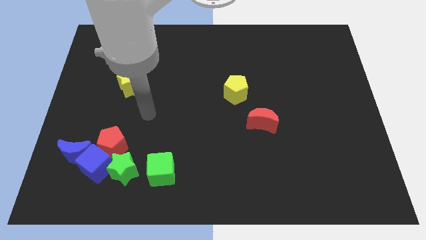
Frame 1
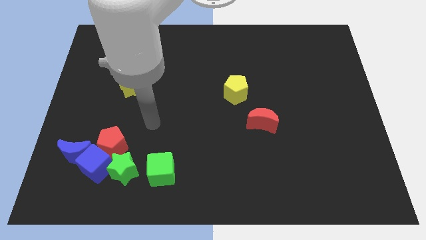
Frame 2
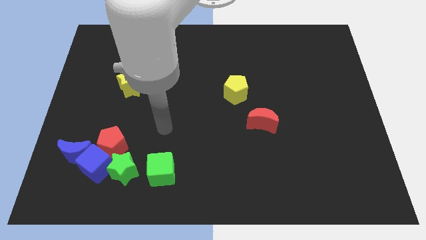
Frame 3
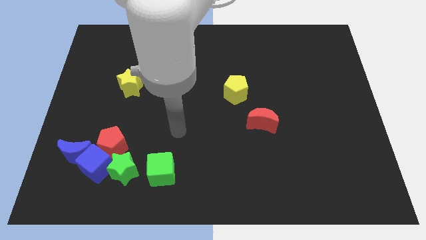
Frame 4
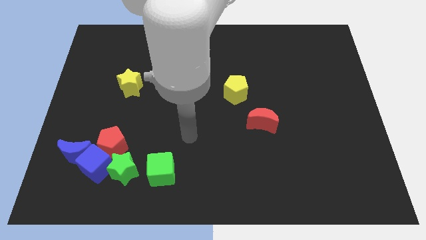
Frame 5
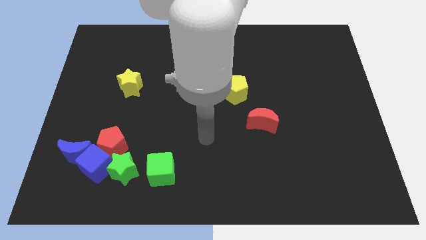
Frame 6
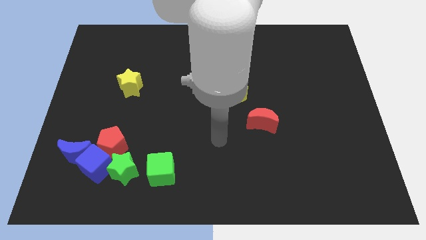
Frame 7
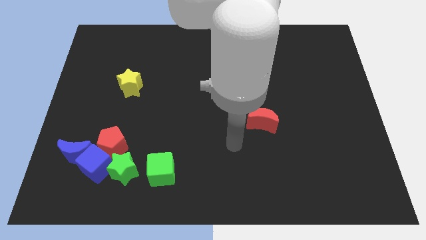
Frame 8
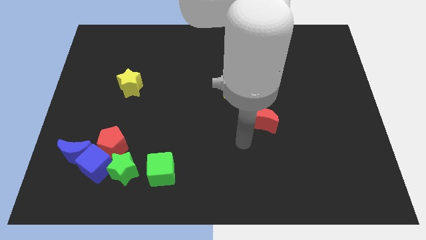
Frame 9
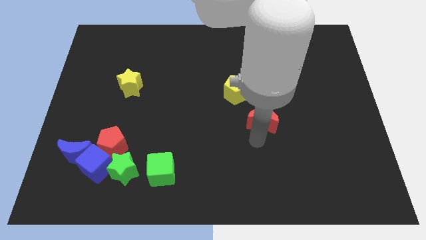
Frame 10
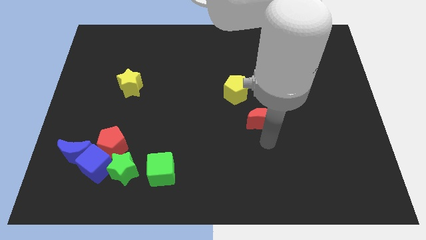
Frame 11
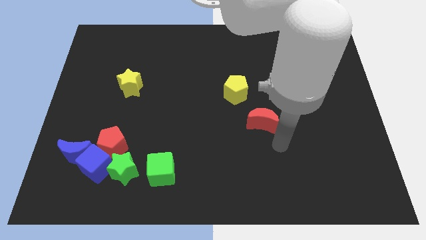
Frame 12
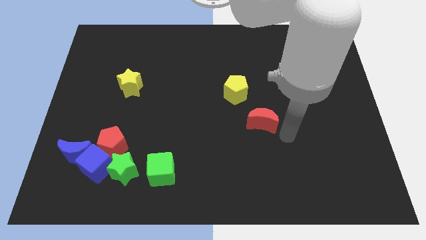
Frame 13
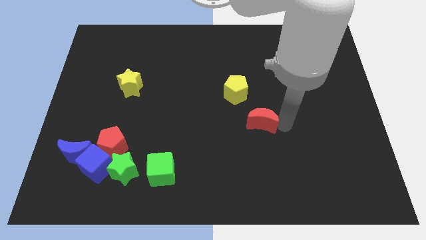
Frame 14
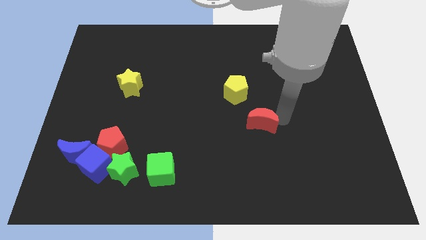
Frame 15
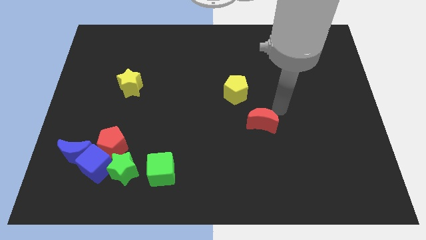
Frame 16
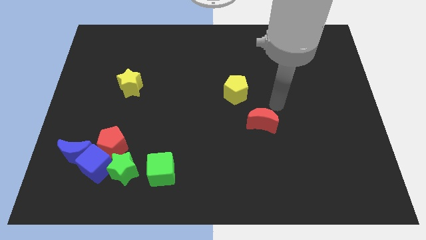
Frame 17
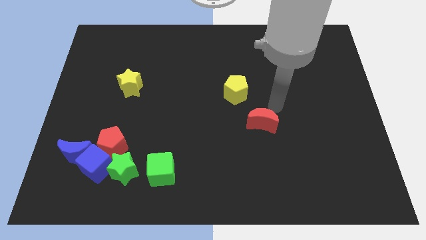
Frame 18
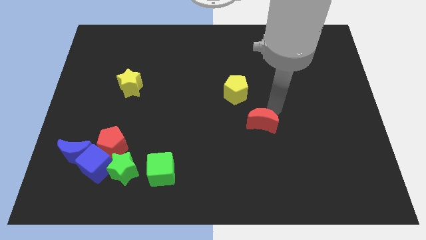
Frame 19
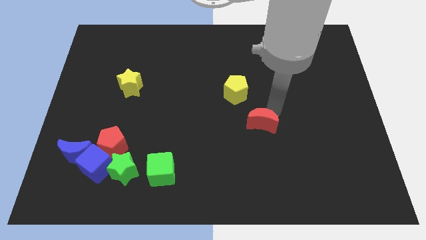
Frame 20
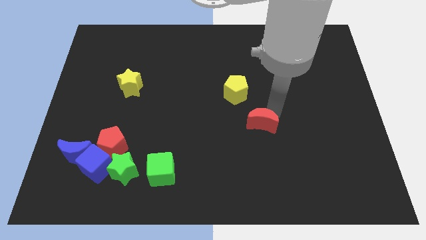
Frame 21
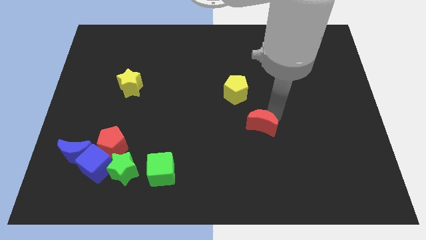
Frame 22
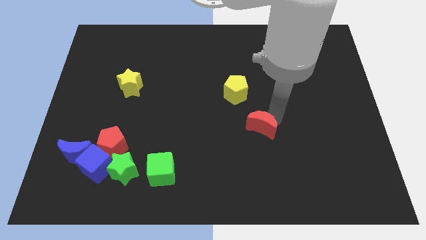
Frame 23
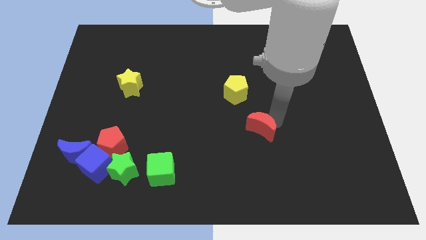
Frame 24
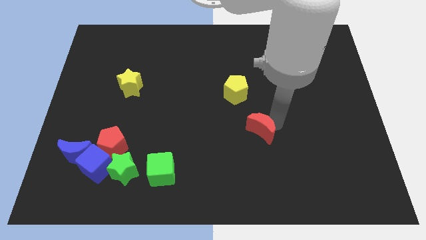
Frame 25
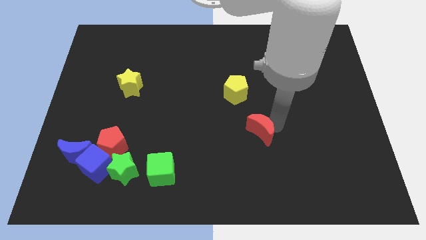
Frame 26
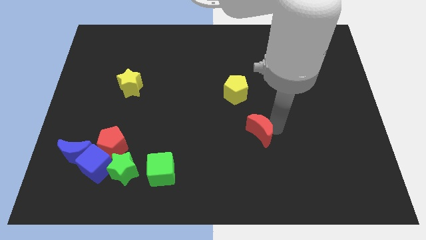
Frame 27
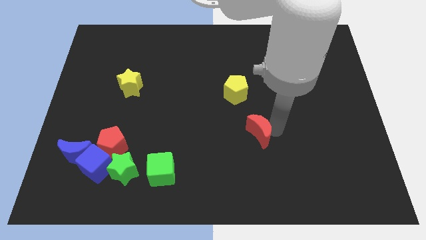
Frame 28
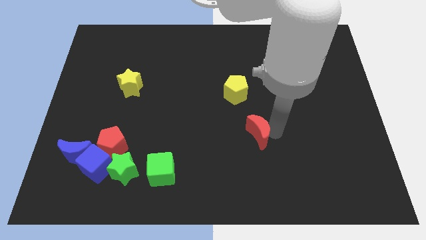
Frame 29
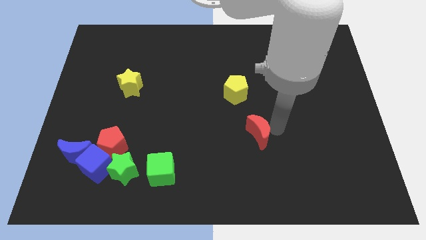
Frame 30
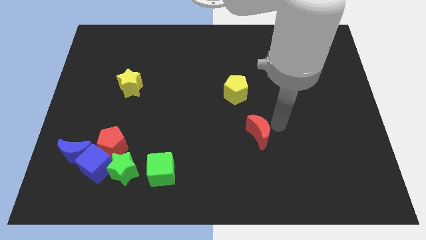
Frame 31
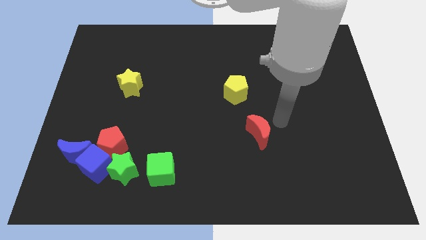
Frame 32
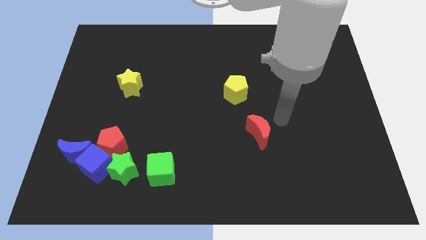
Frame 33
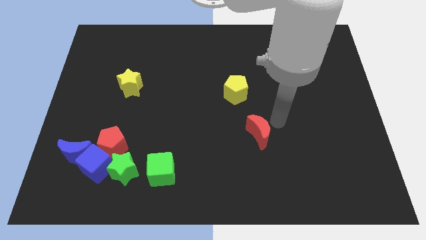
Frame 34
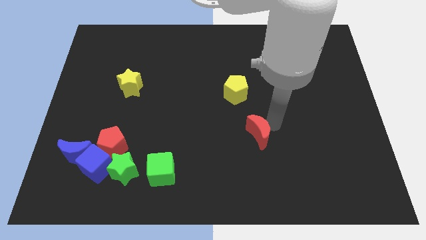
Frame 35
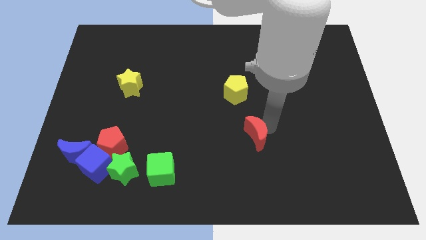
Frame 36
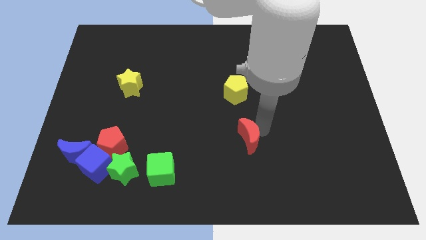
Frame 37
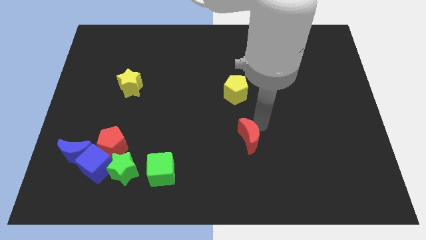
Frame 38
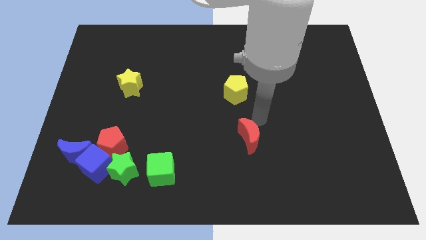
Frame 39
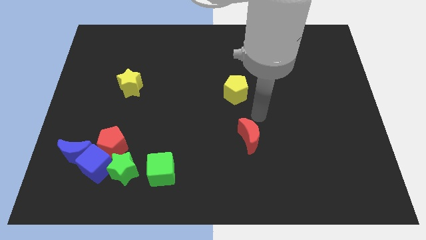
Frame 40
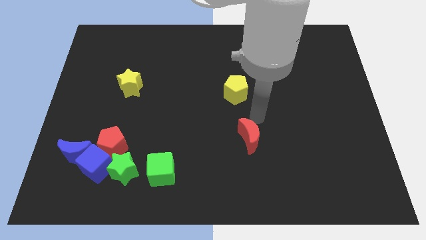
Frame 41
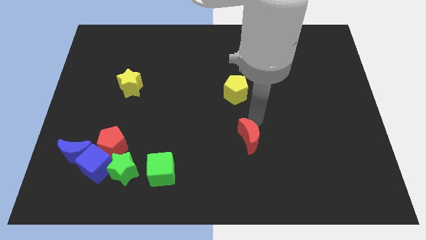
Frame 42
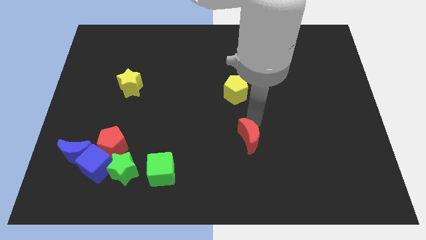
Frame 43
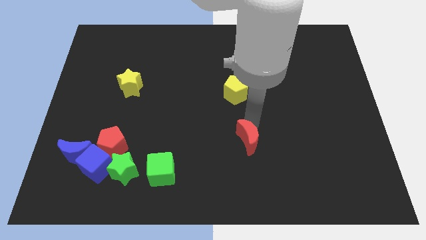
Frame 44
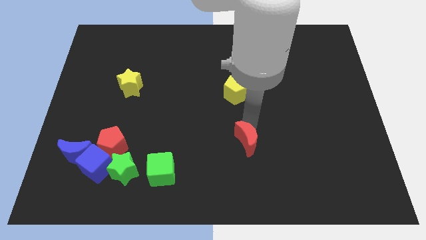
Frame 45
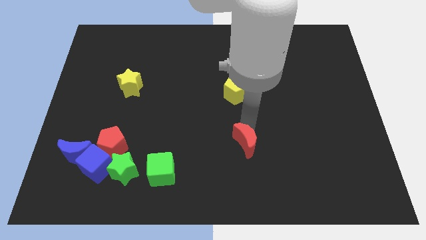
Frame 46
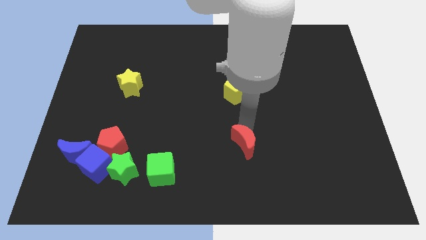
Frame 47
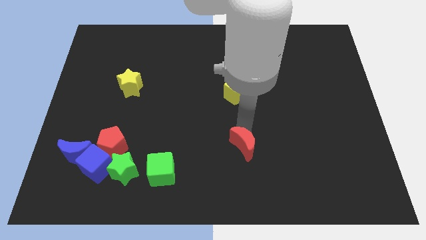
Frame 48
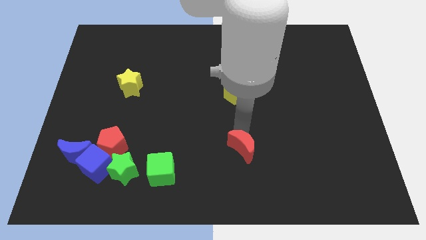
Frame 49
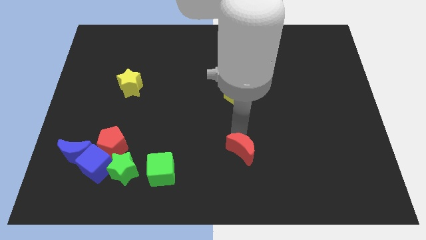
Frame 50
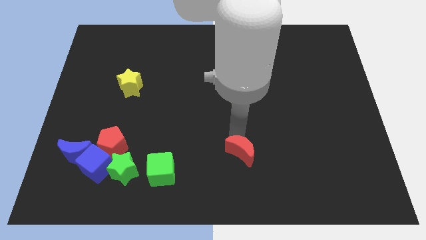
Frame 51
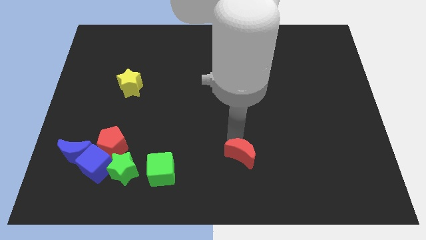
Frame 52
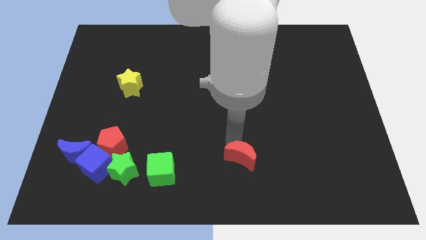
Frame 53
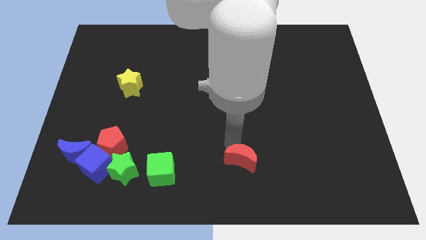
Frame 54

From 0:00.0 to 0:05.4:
slide the red moon to the bottom

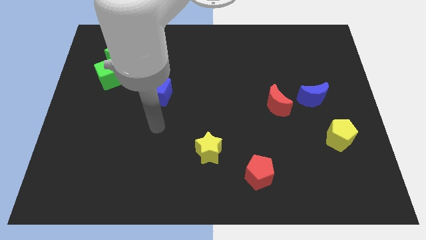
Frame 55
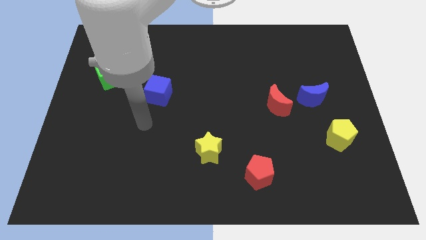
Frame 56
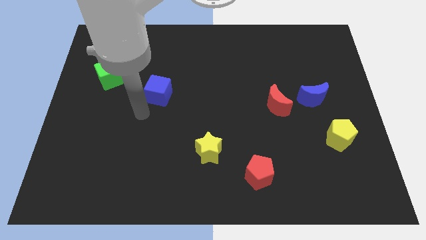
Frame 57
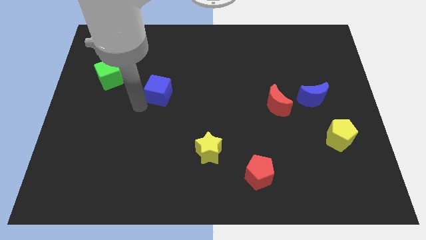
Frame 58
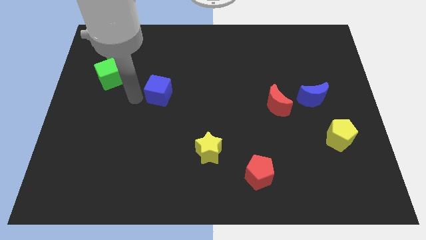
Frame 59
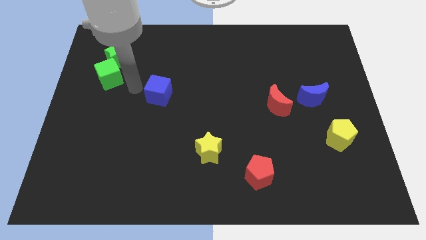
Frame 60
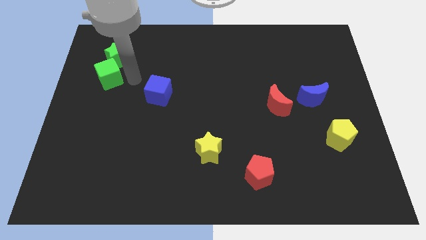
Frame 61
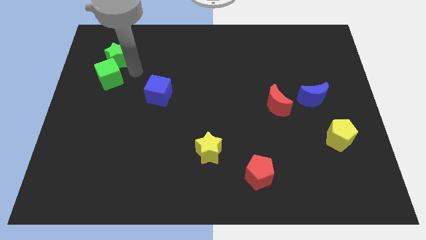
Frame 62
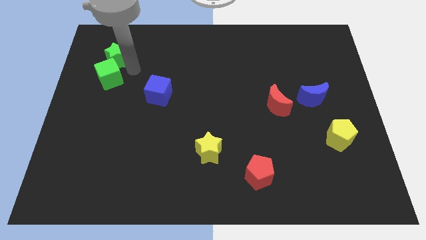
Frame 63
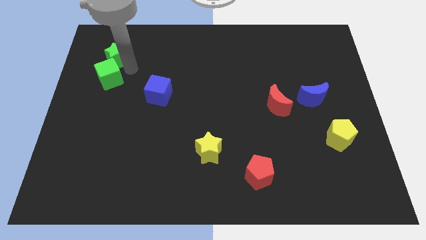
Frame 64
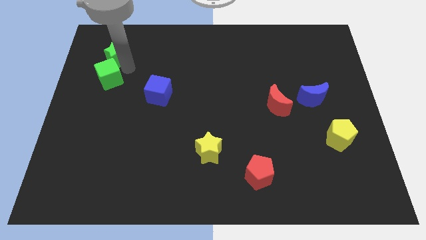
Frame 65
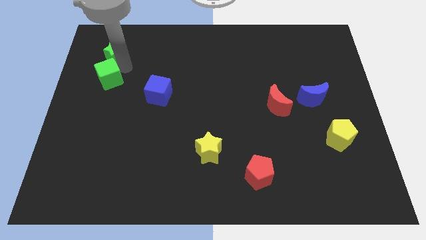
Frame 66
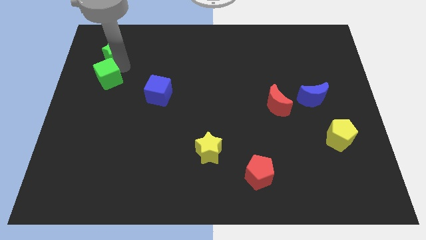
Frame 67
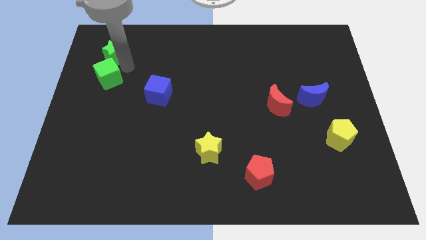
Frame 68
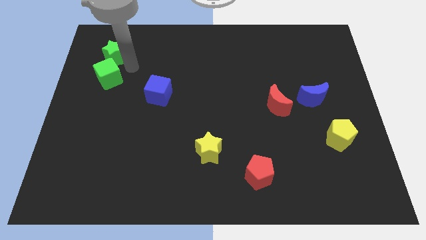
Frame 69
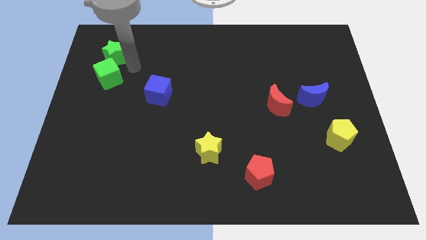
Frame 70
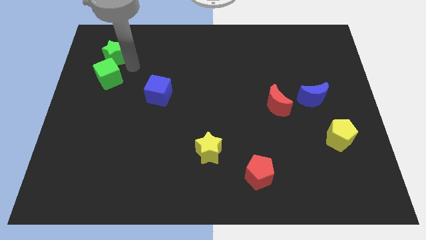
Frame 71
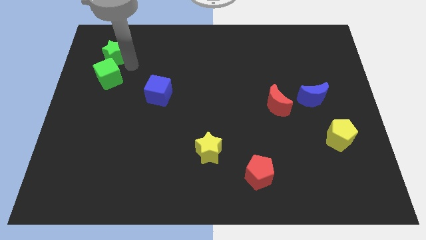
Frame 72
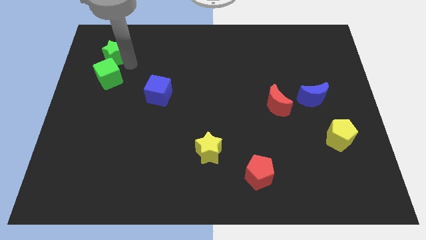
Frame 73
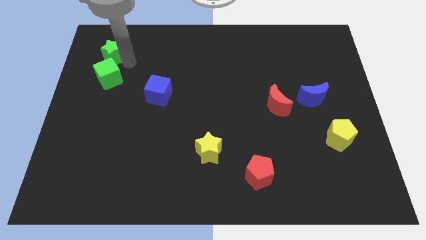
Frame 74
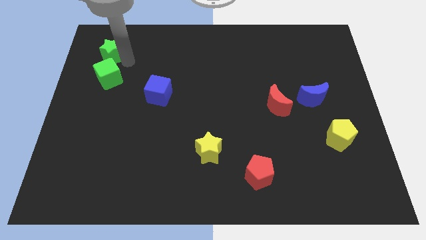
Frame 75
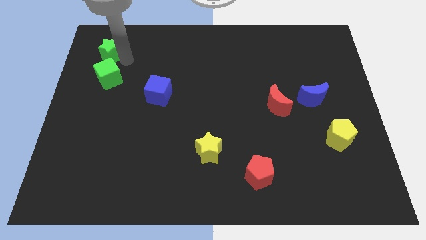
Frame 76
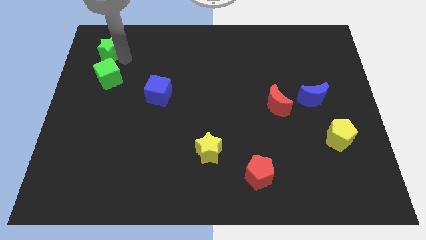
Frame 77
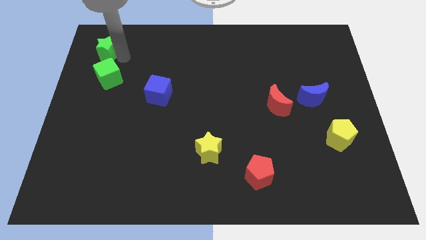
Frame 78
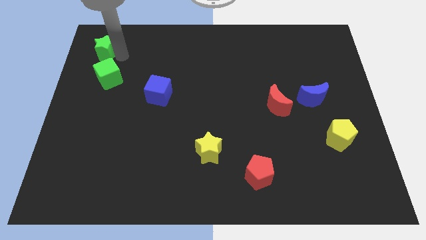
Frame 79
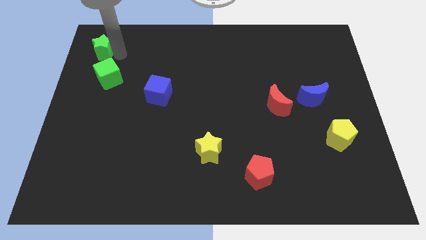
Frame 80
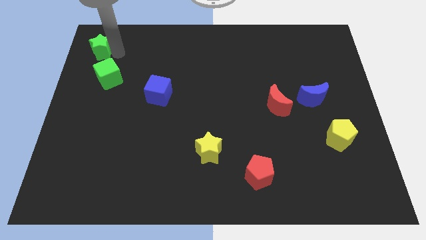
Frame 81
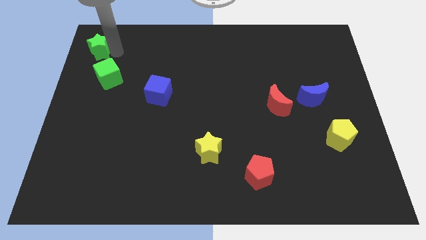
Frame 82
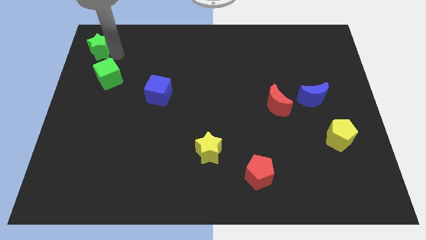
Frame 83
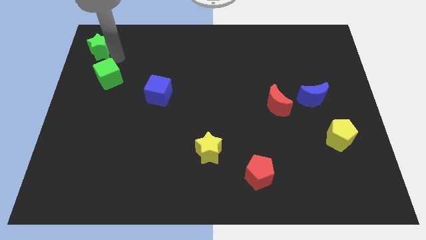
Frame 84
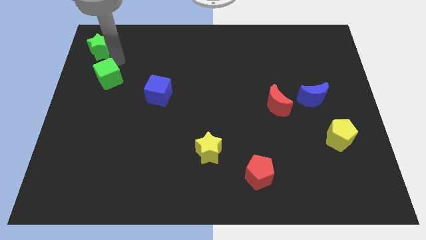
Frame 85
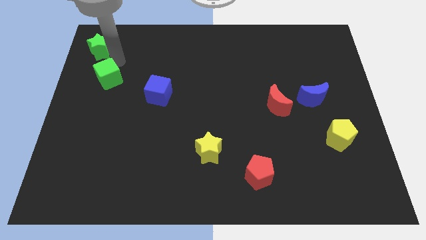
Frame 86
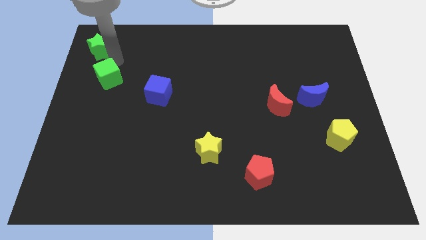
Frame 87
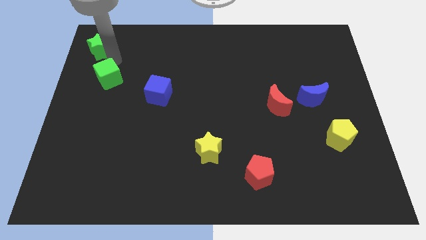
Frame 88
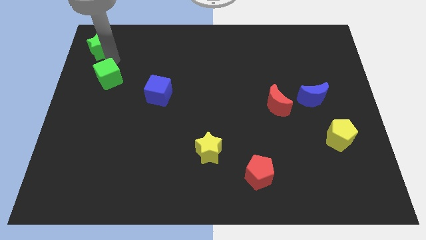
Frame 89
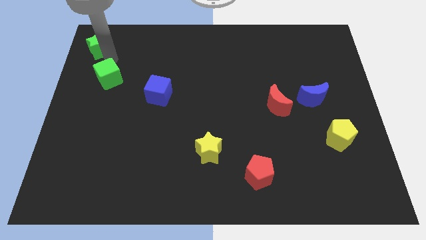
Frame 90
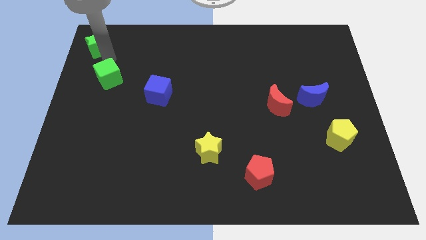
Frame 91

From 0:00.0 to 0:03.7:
push the green star to the top left of the board
